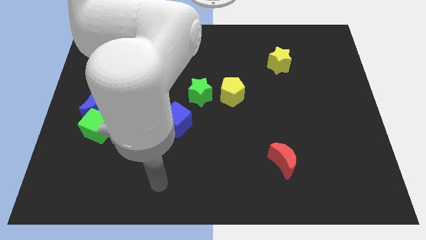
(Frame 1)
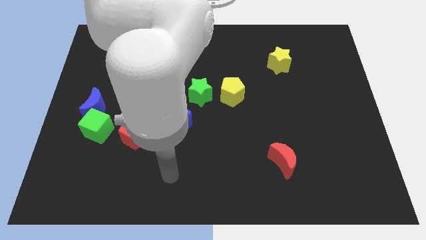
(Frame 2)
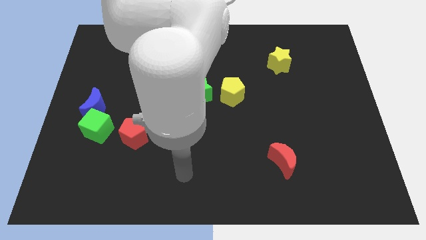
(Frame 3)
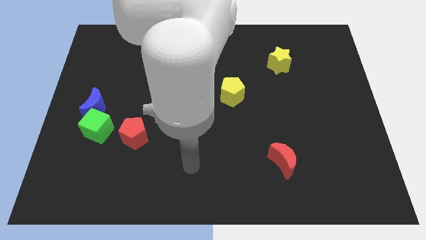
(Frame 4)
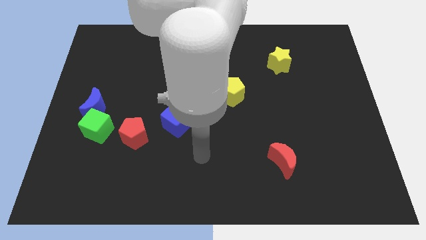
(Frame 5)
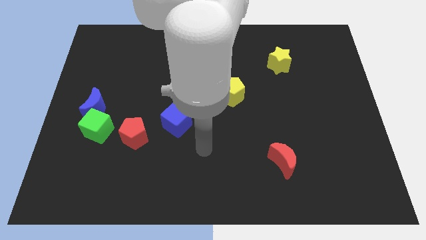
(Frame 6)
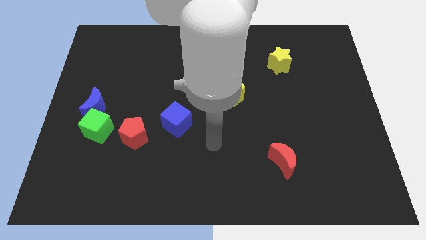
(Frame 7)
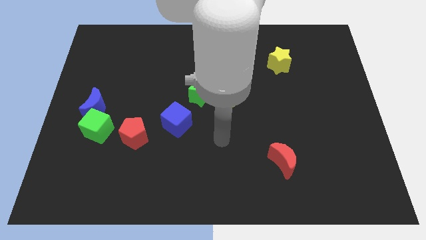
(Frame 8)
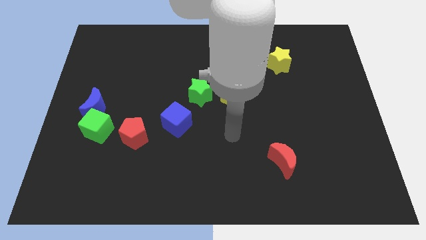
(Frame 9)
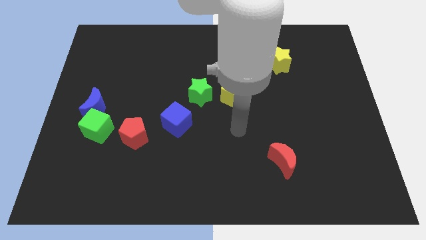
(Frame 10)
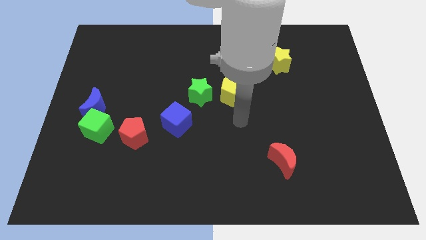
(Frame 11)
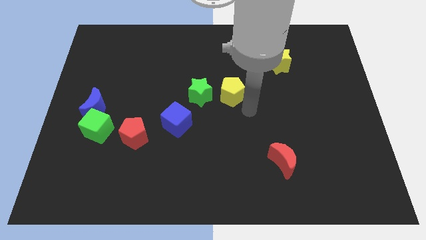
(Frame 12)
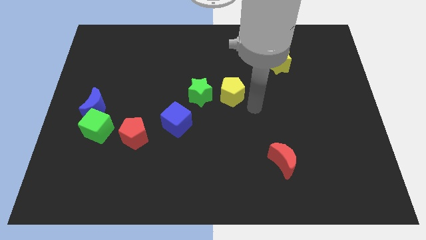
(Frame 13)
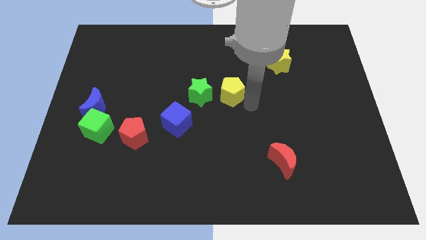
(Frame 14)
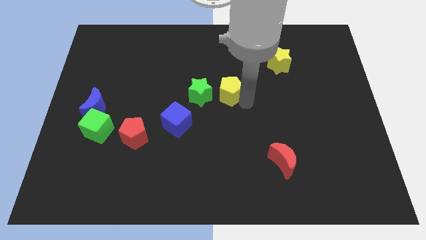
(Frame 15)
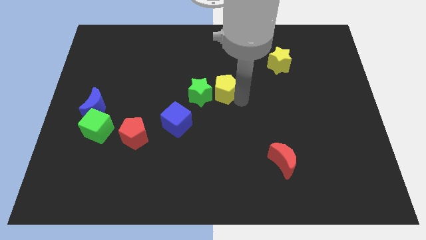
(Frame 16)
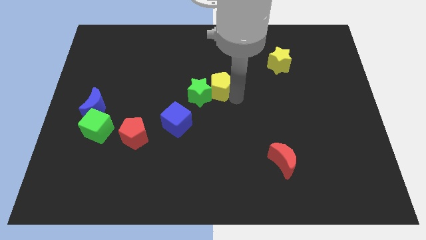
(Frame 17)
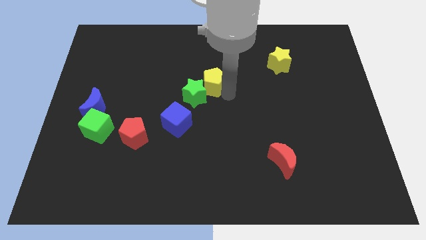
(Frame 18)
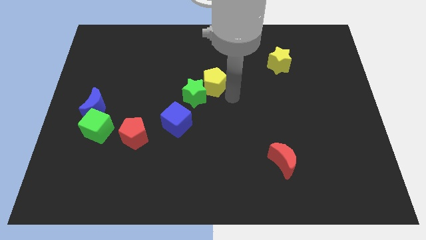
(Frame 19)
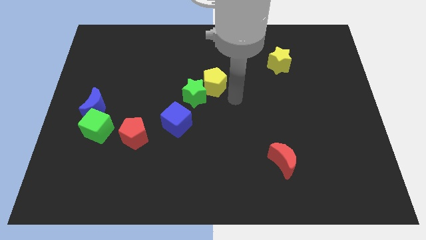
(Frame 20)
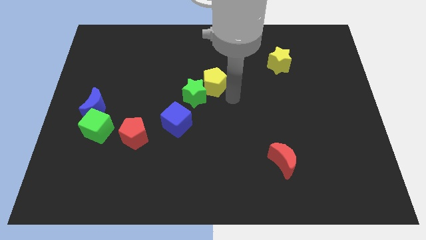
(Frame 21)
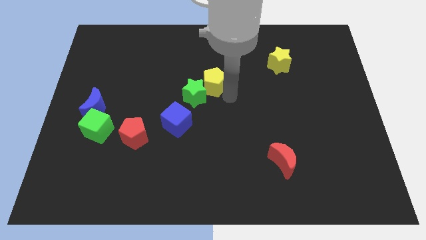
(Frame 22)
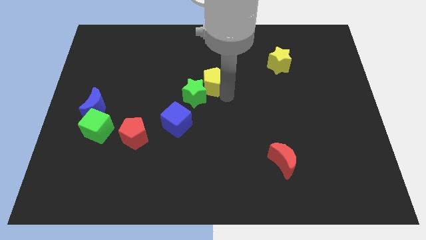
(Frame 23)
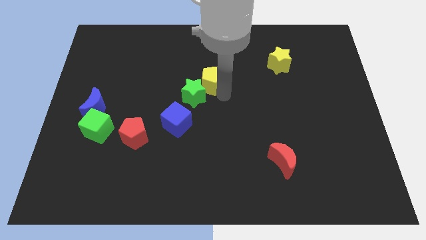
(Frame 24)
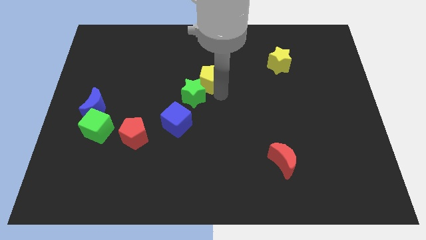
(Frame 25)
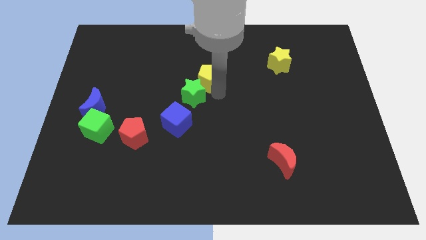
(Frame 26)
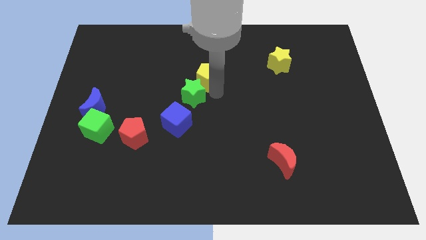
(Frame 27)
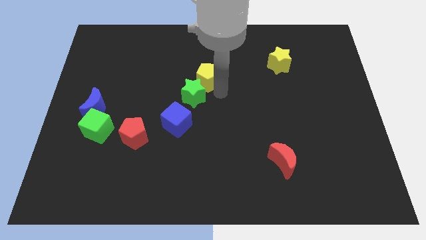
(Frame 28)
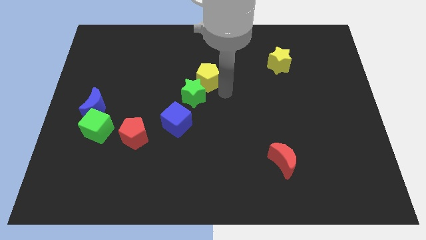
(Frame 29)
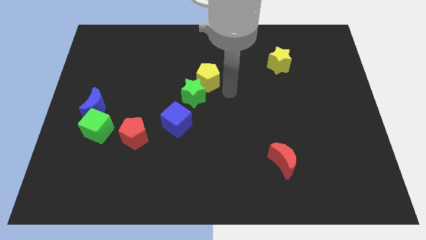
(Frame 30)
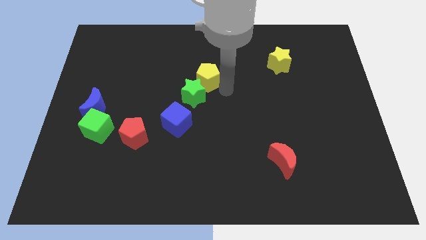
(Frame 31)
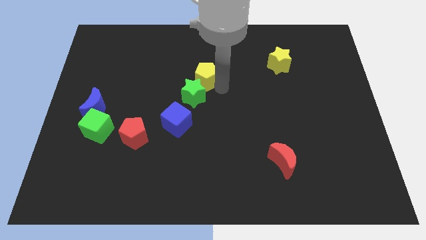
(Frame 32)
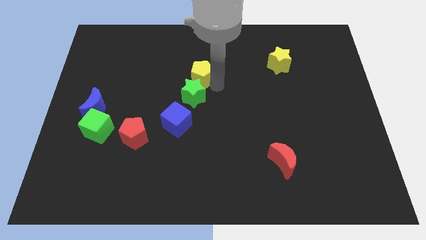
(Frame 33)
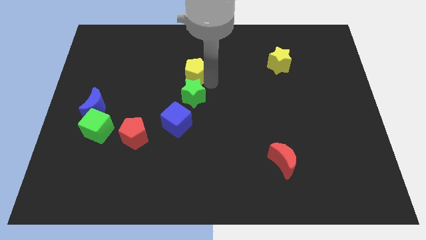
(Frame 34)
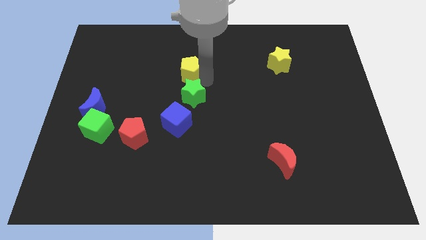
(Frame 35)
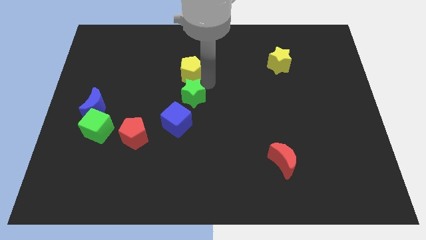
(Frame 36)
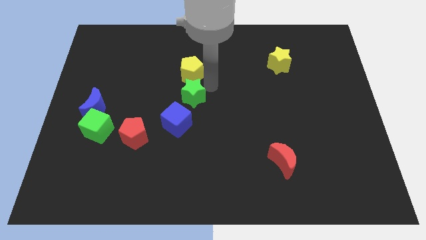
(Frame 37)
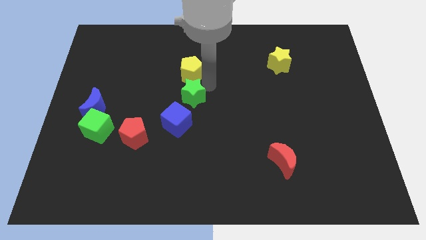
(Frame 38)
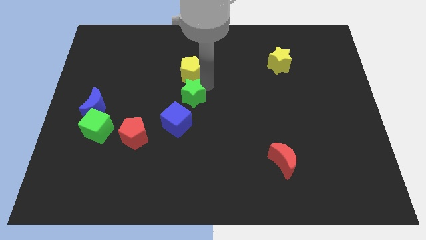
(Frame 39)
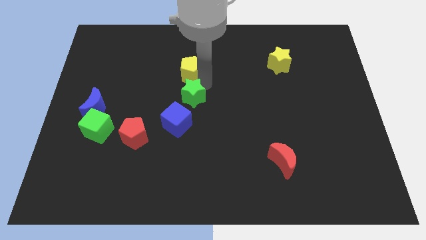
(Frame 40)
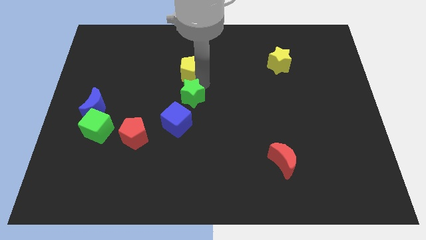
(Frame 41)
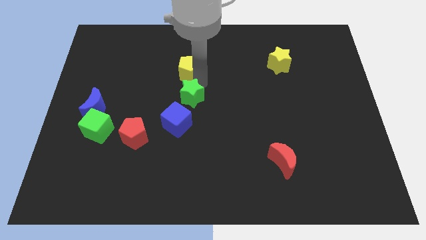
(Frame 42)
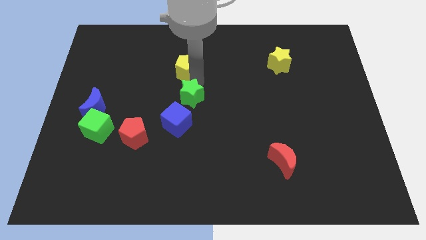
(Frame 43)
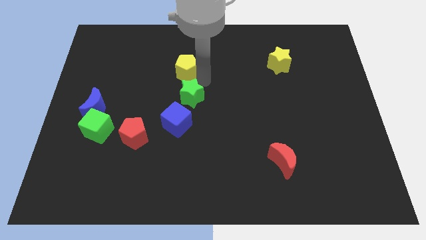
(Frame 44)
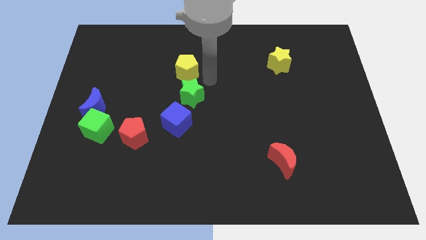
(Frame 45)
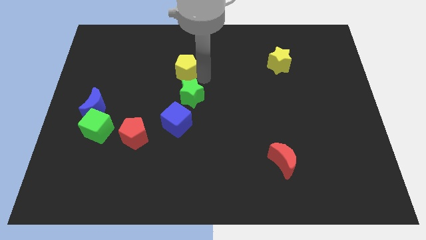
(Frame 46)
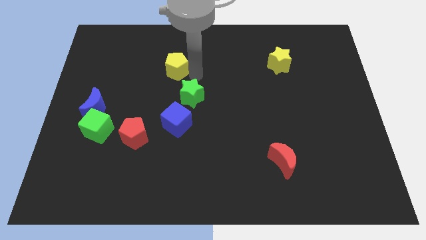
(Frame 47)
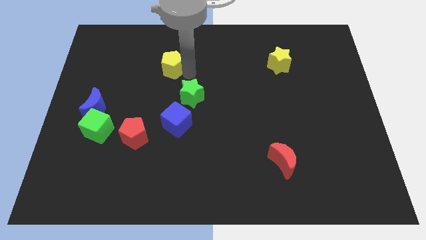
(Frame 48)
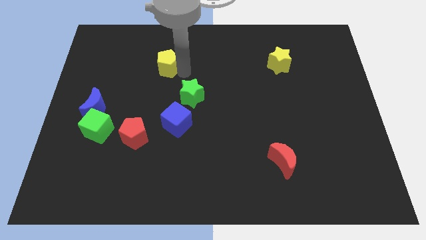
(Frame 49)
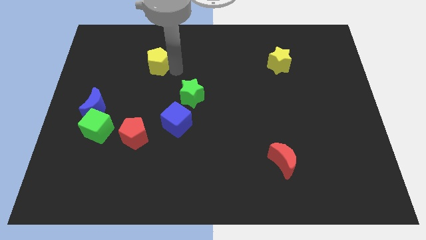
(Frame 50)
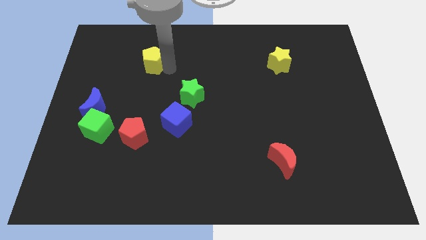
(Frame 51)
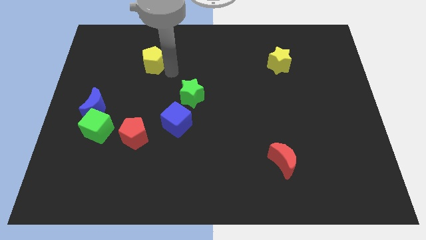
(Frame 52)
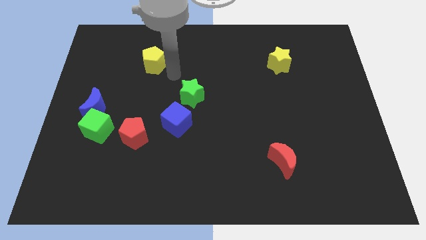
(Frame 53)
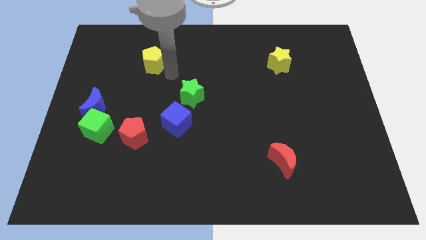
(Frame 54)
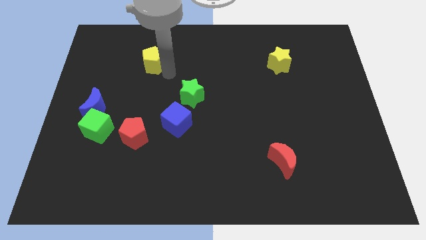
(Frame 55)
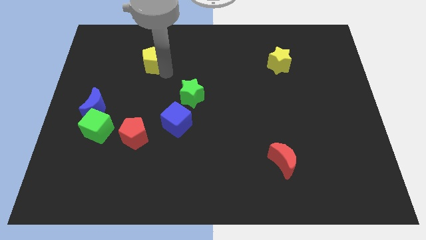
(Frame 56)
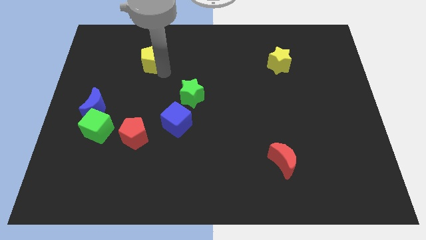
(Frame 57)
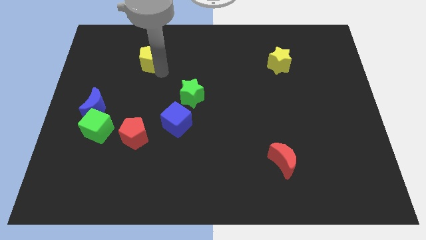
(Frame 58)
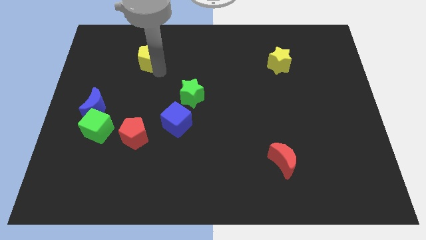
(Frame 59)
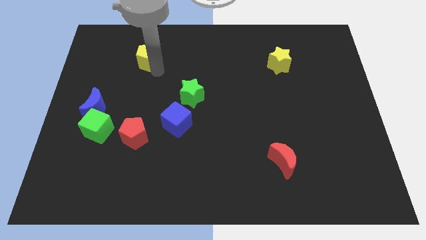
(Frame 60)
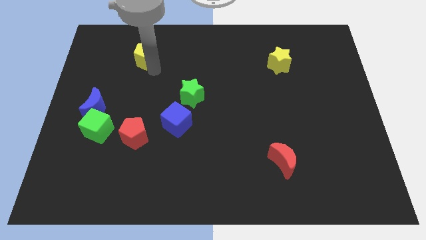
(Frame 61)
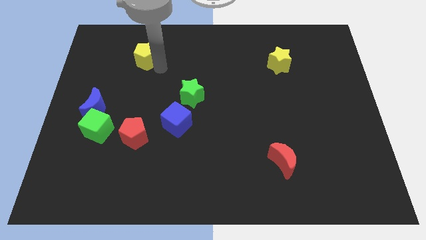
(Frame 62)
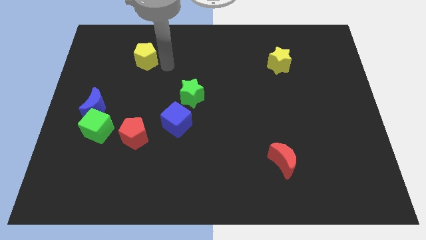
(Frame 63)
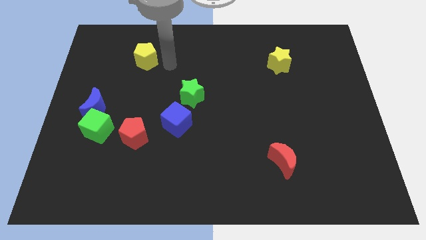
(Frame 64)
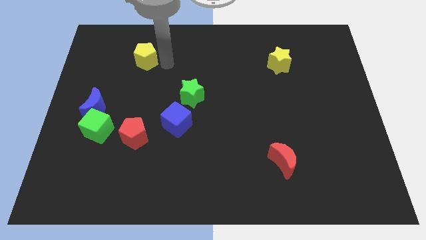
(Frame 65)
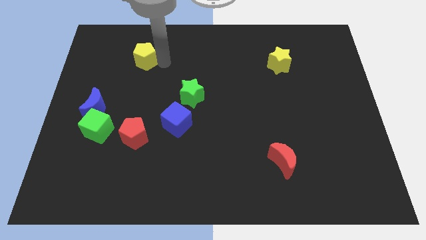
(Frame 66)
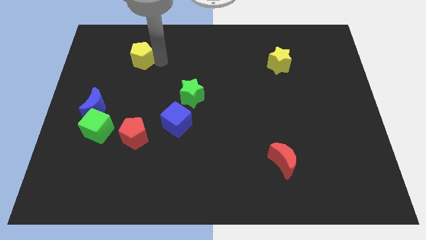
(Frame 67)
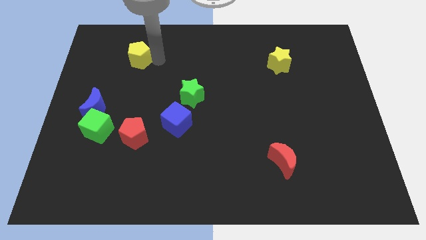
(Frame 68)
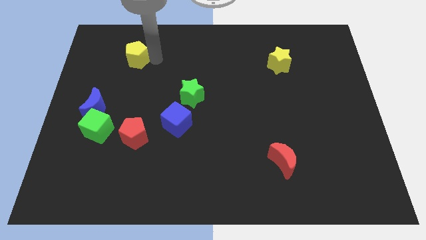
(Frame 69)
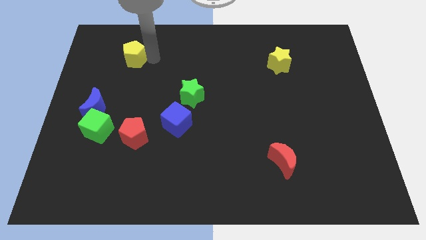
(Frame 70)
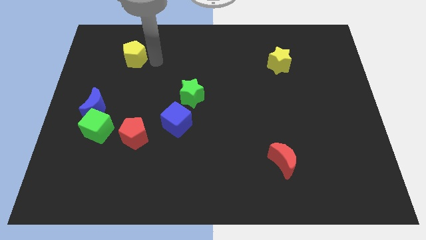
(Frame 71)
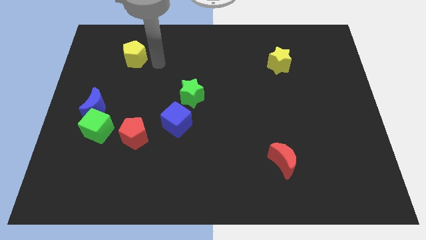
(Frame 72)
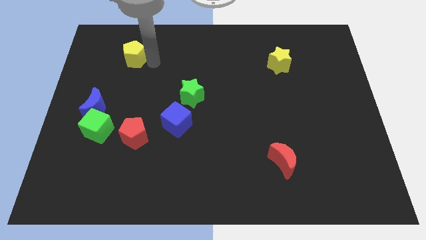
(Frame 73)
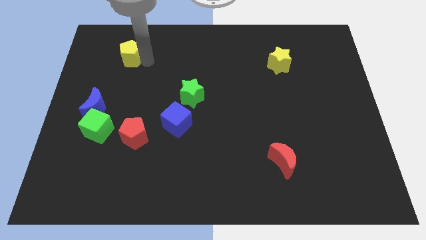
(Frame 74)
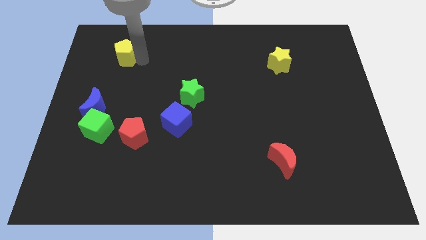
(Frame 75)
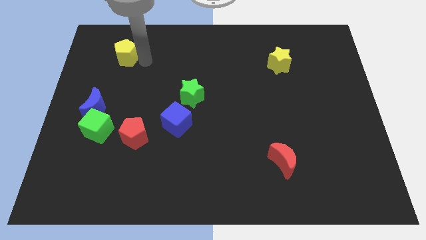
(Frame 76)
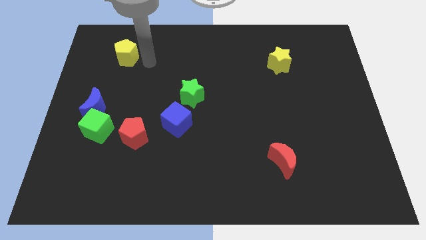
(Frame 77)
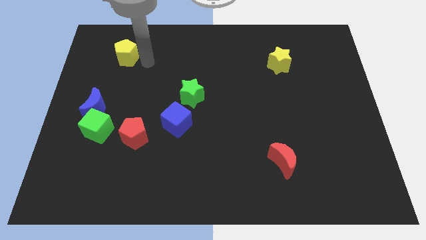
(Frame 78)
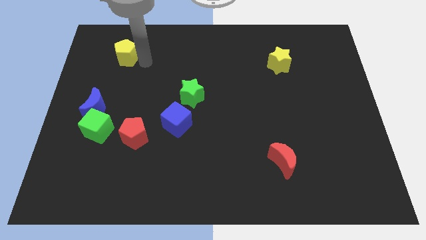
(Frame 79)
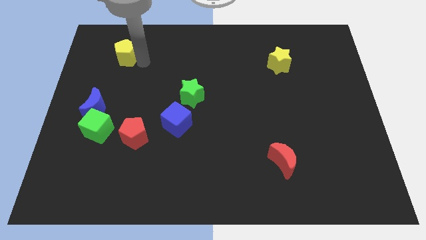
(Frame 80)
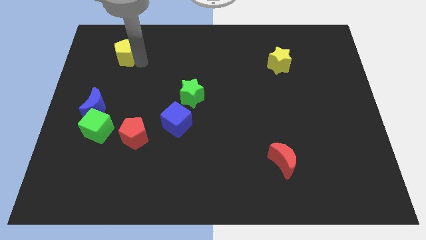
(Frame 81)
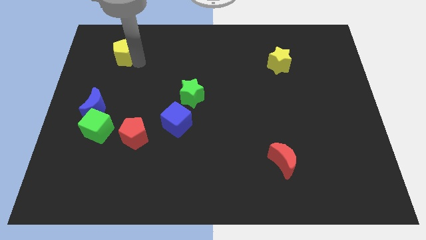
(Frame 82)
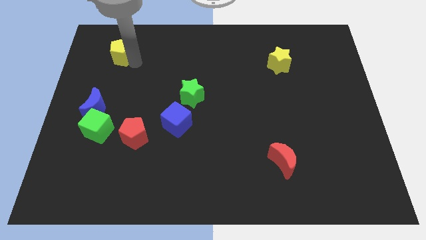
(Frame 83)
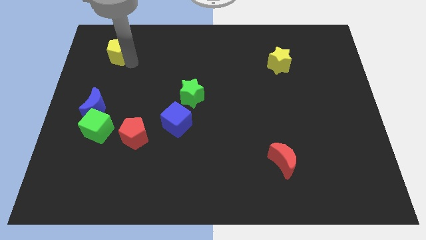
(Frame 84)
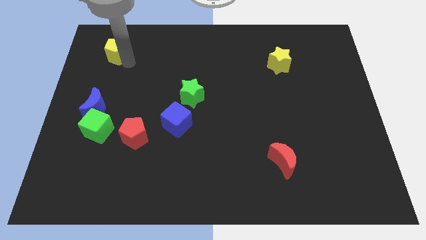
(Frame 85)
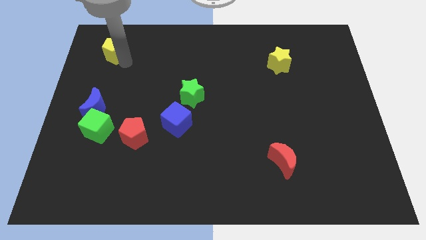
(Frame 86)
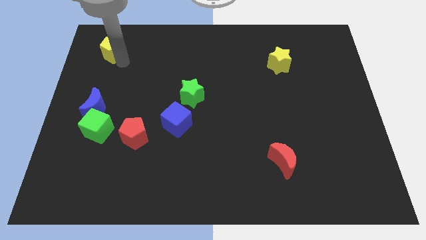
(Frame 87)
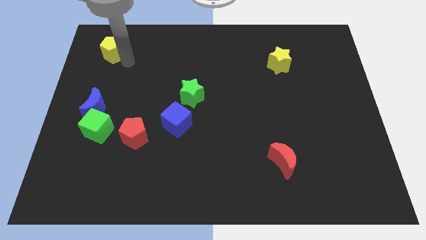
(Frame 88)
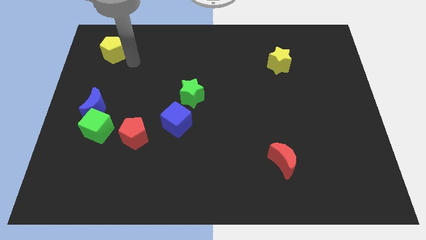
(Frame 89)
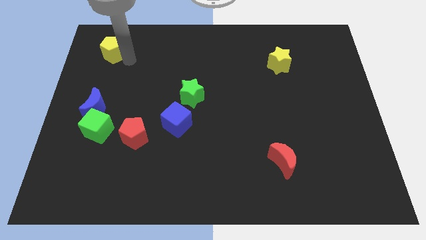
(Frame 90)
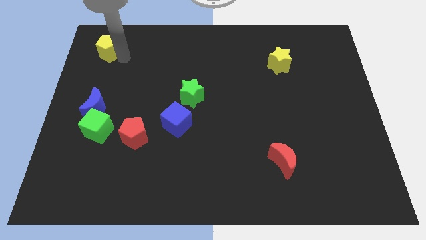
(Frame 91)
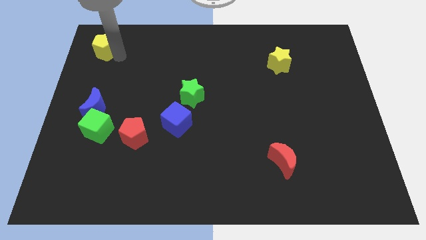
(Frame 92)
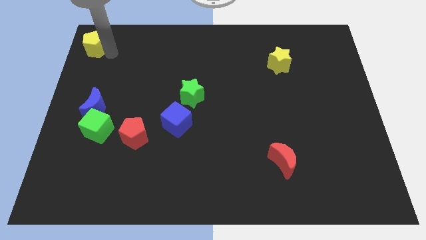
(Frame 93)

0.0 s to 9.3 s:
push the yellow pentagon to the top left corner
